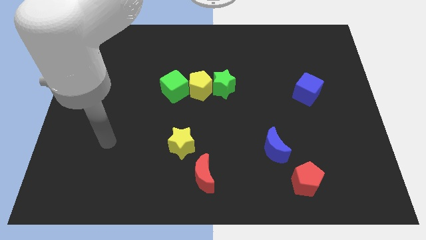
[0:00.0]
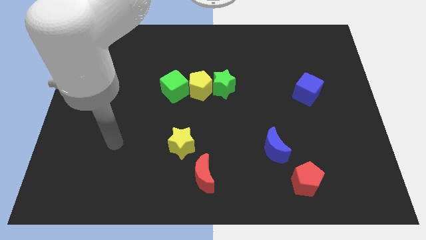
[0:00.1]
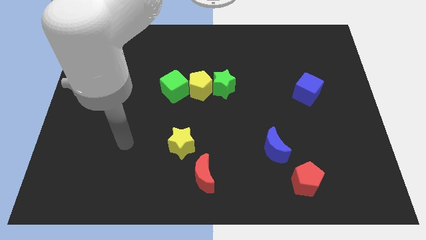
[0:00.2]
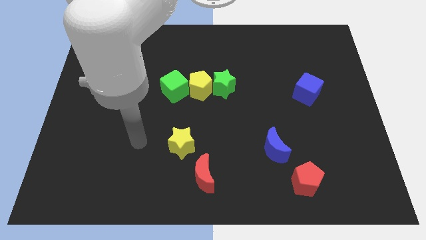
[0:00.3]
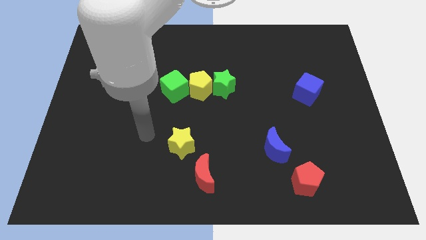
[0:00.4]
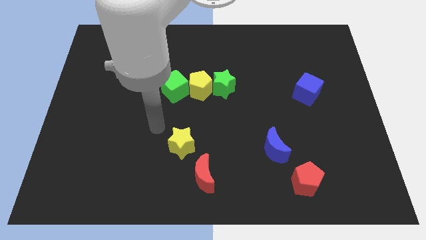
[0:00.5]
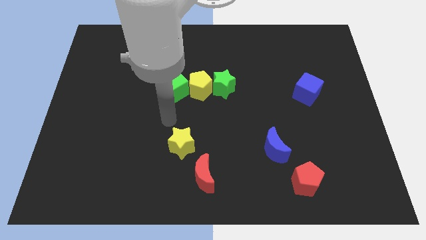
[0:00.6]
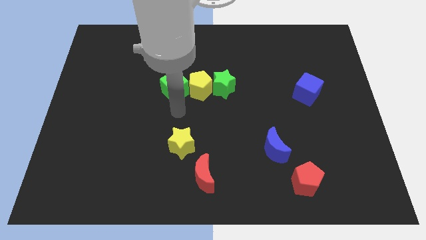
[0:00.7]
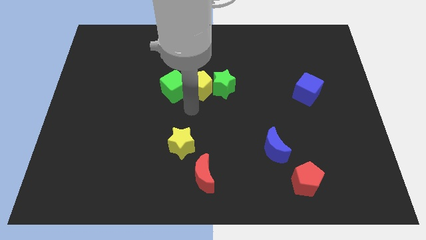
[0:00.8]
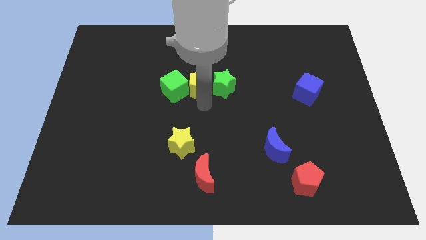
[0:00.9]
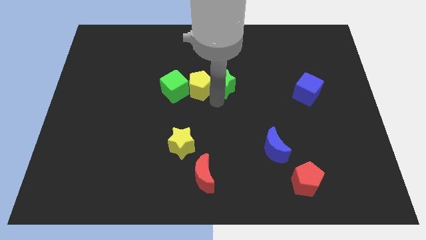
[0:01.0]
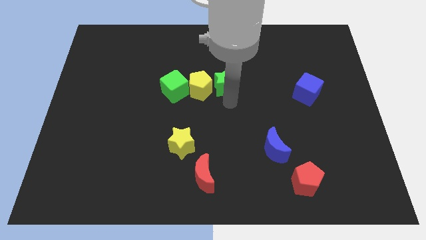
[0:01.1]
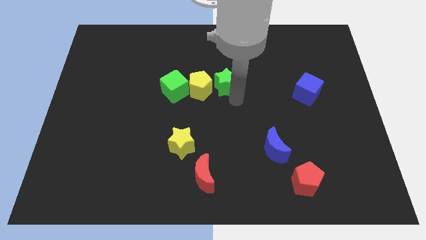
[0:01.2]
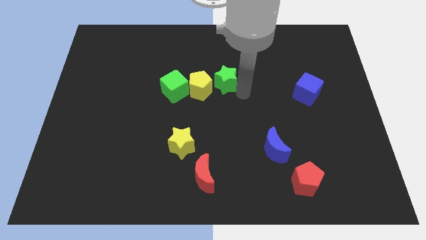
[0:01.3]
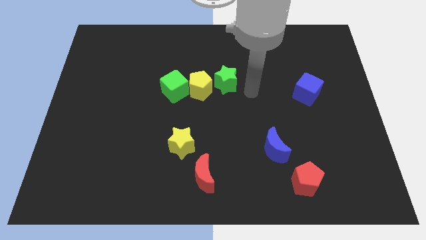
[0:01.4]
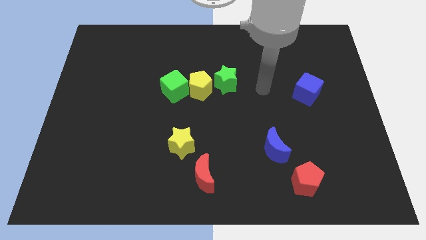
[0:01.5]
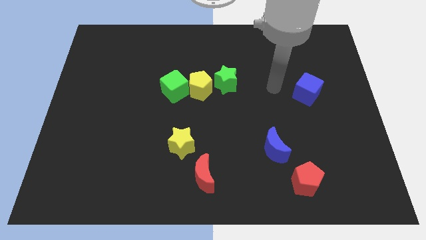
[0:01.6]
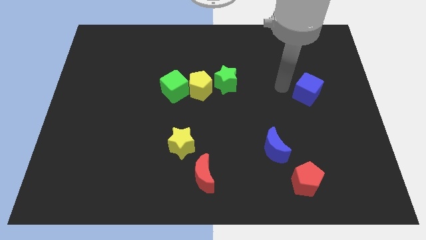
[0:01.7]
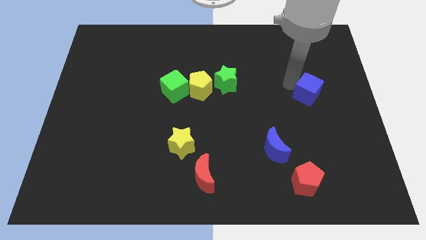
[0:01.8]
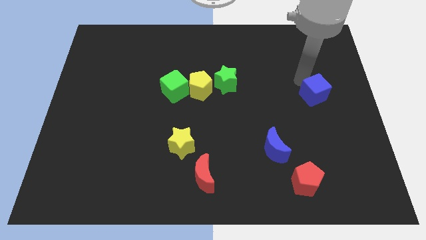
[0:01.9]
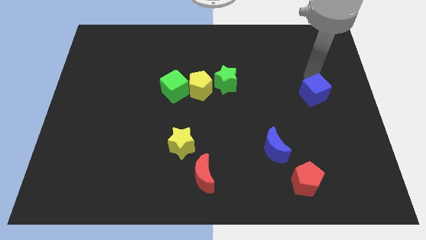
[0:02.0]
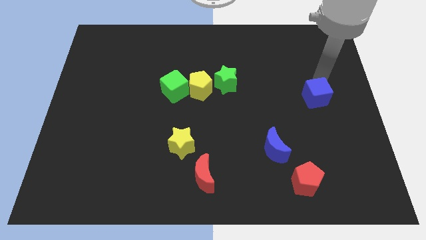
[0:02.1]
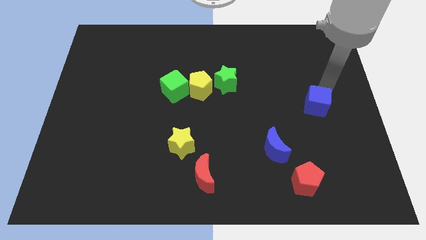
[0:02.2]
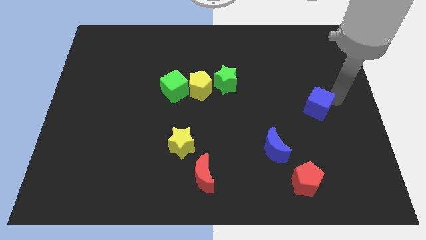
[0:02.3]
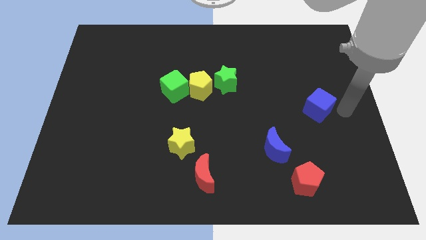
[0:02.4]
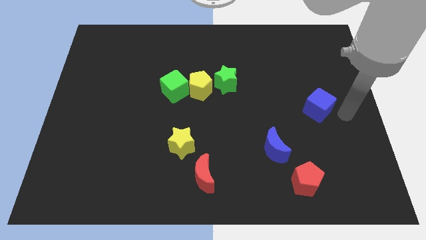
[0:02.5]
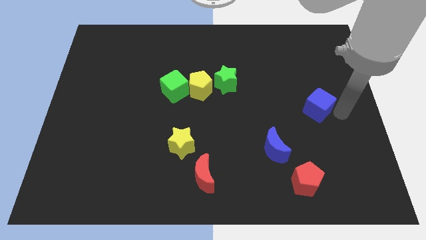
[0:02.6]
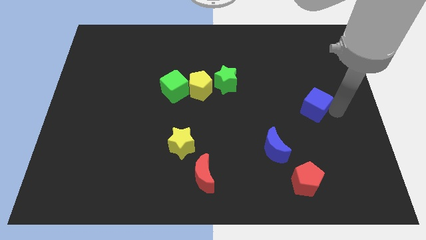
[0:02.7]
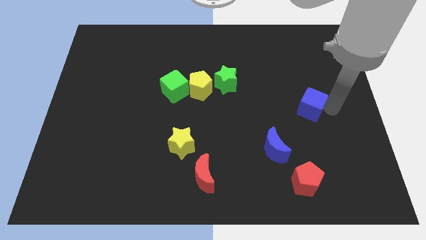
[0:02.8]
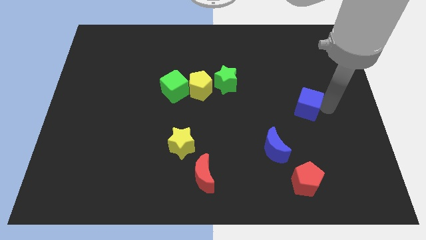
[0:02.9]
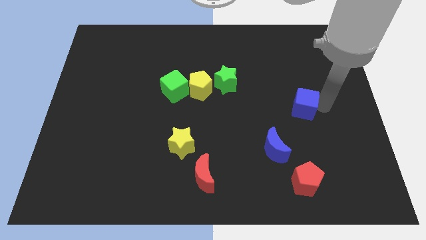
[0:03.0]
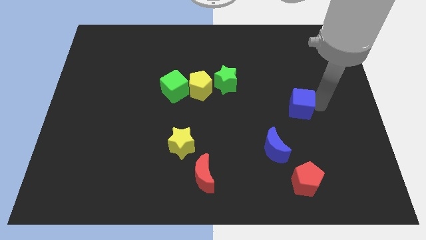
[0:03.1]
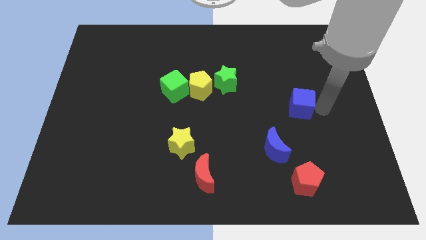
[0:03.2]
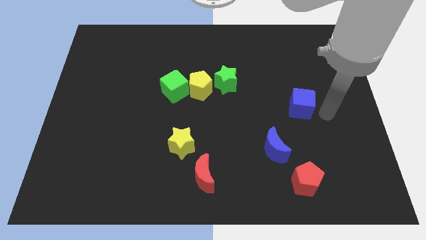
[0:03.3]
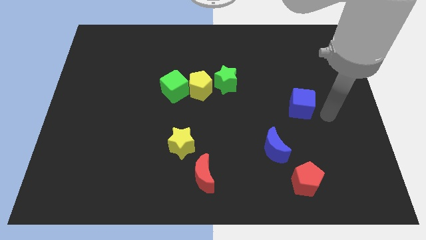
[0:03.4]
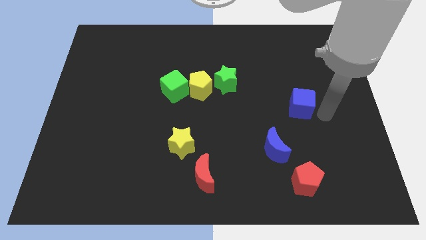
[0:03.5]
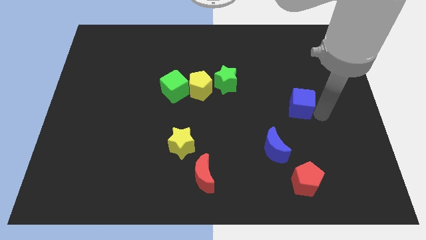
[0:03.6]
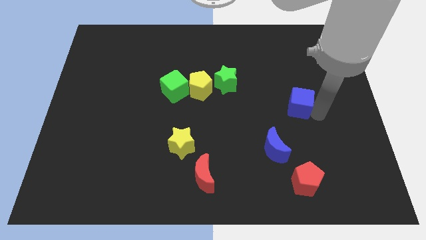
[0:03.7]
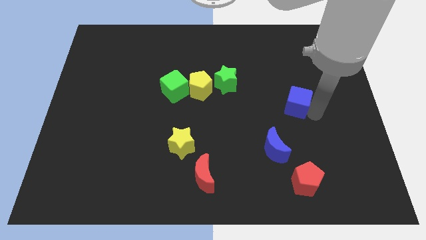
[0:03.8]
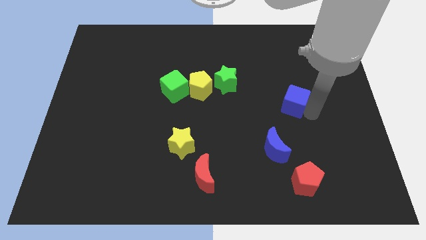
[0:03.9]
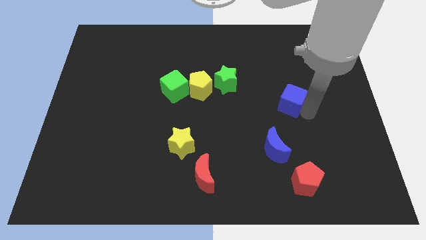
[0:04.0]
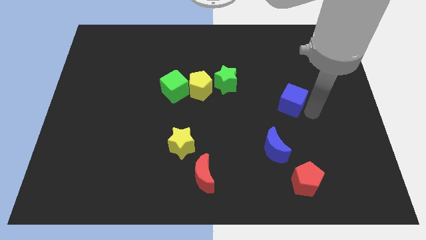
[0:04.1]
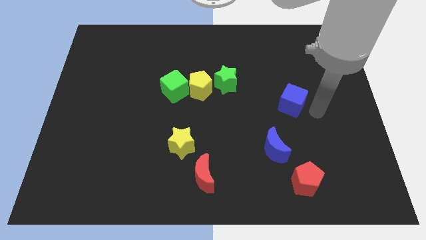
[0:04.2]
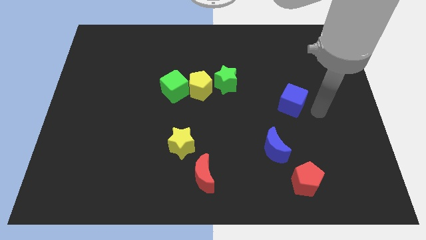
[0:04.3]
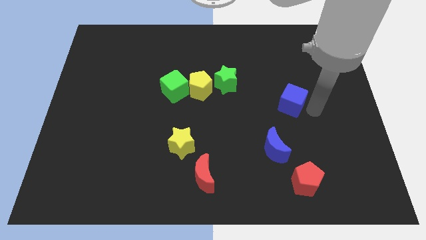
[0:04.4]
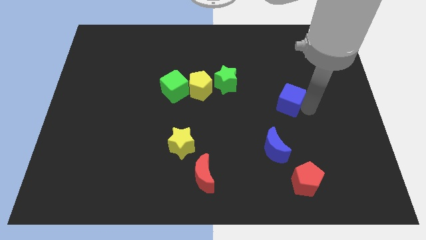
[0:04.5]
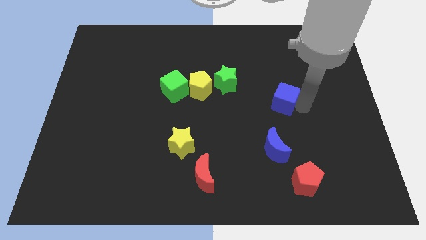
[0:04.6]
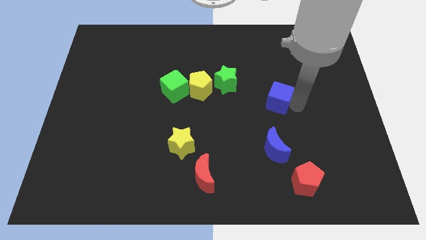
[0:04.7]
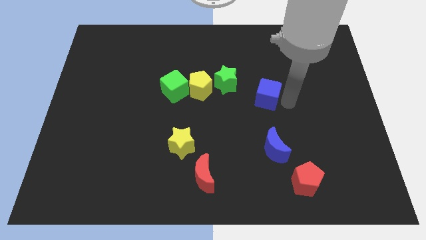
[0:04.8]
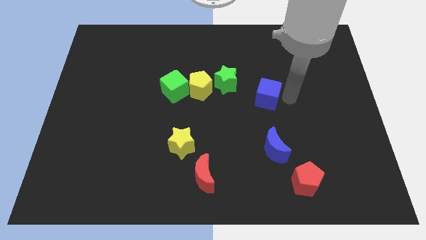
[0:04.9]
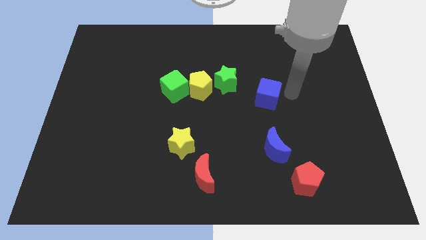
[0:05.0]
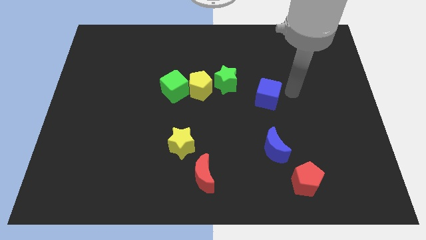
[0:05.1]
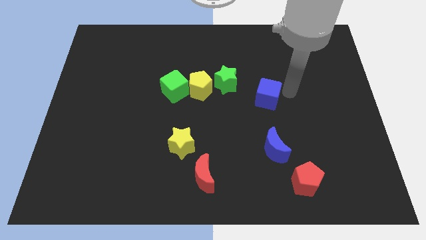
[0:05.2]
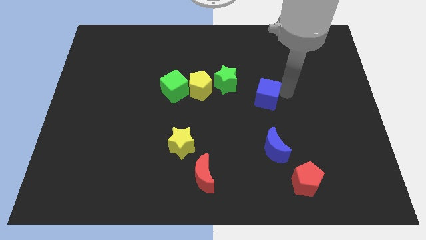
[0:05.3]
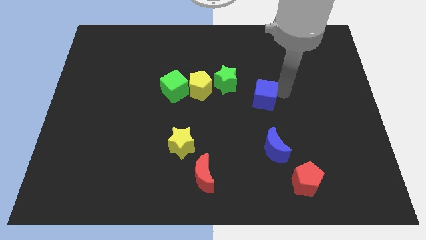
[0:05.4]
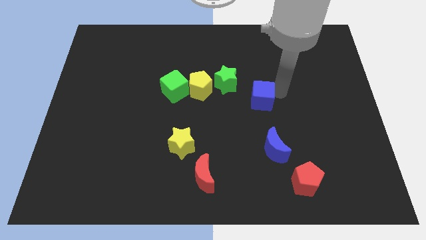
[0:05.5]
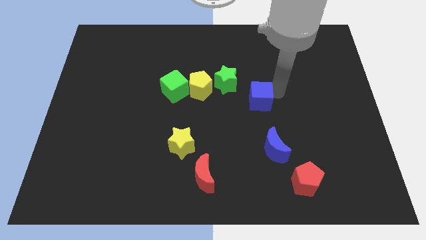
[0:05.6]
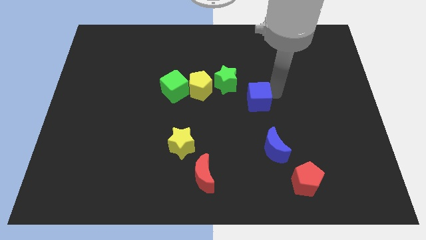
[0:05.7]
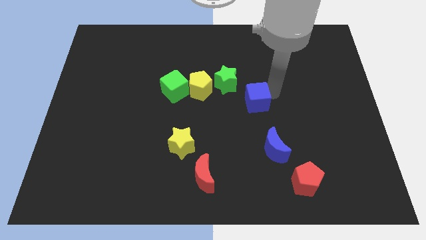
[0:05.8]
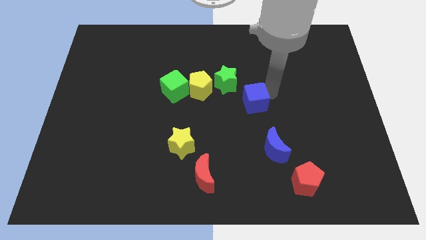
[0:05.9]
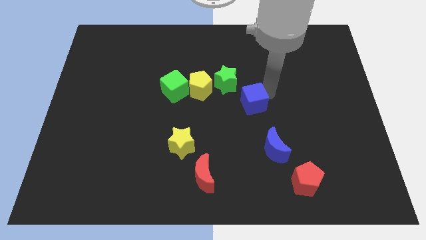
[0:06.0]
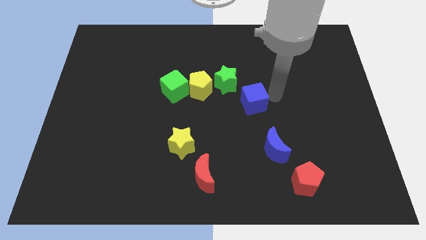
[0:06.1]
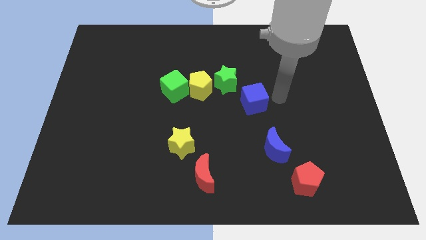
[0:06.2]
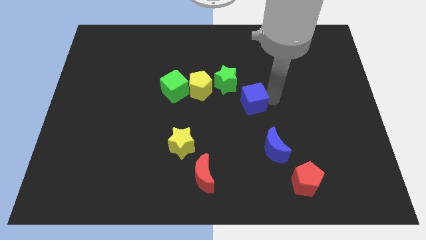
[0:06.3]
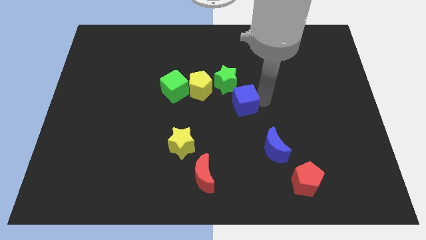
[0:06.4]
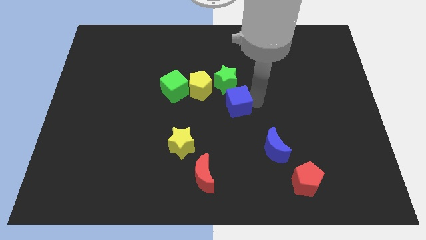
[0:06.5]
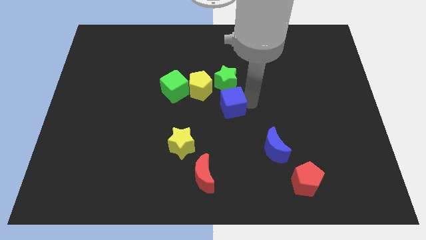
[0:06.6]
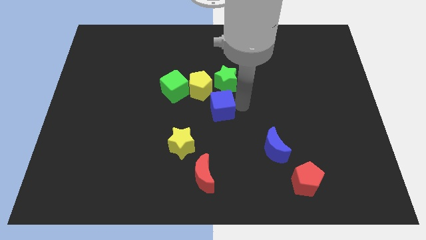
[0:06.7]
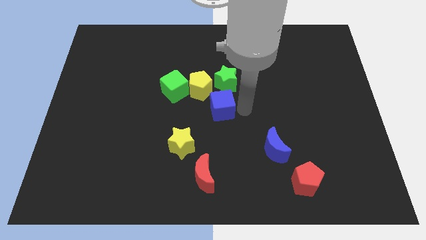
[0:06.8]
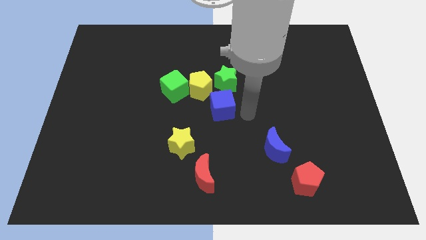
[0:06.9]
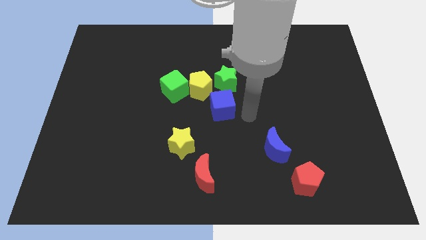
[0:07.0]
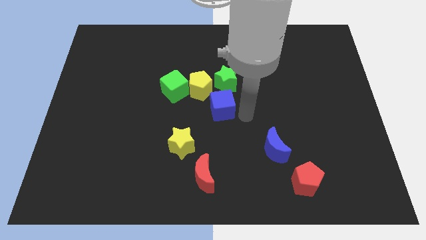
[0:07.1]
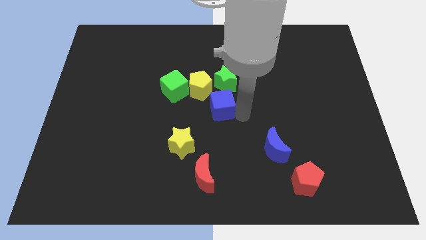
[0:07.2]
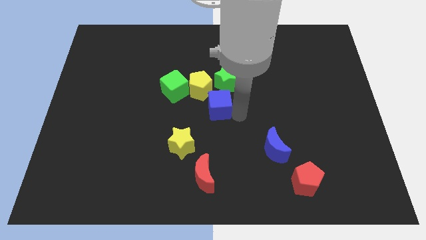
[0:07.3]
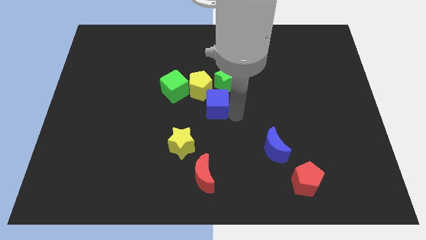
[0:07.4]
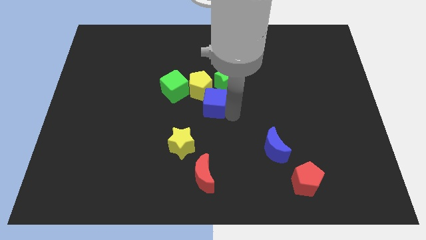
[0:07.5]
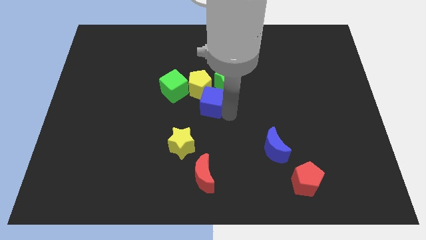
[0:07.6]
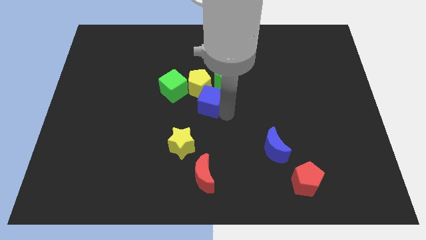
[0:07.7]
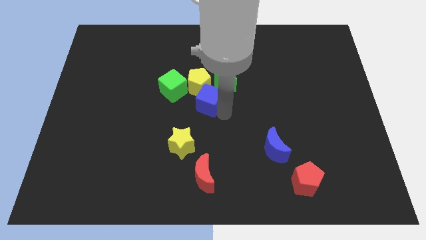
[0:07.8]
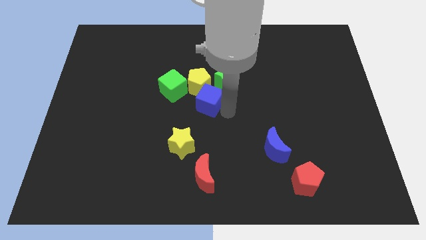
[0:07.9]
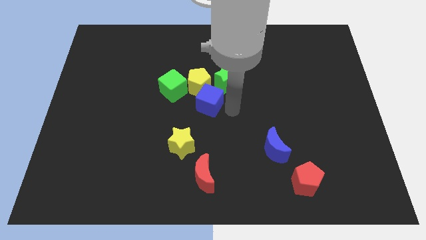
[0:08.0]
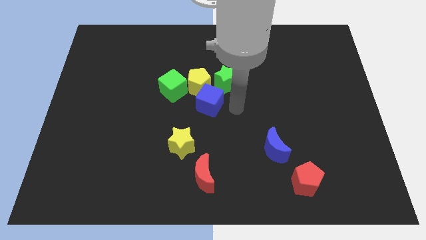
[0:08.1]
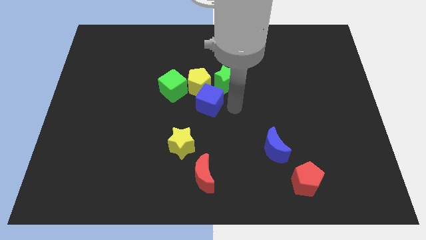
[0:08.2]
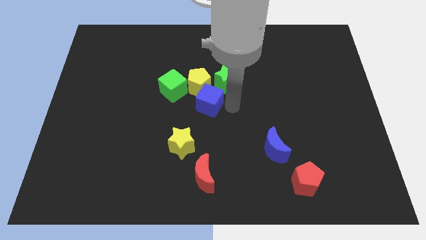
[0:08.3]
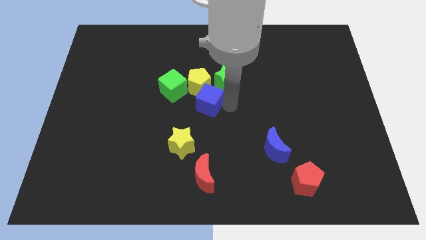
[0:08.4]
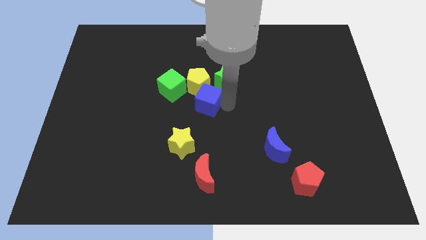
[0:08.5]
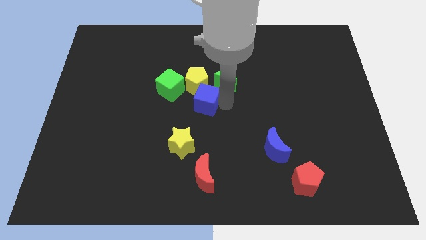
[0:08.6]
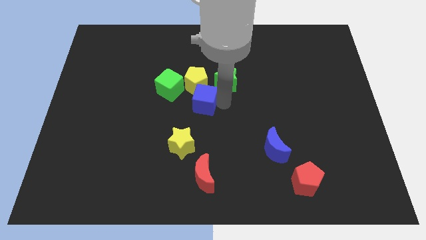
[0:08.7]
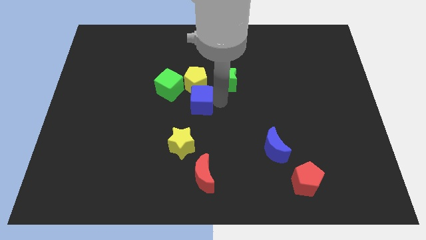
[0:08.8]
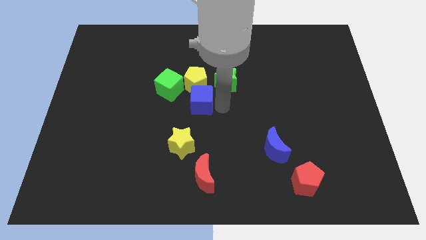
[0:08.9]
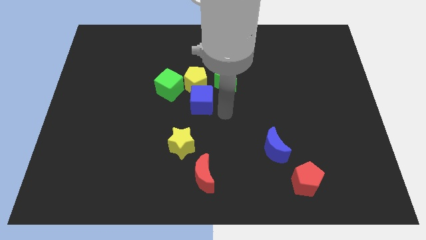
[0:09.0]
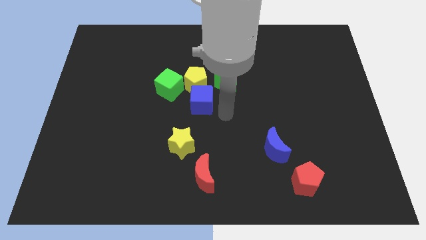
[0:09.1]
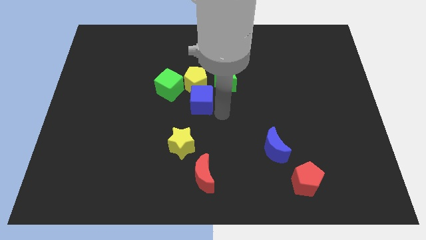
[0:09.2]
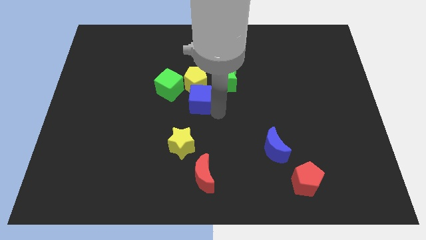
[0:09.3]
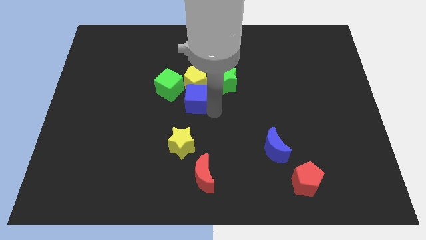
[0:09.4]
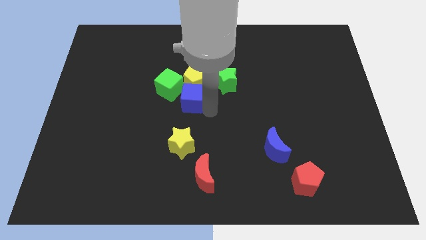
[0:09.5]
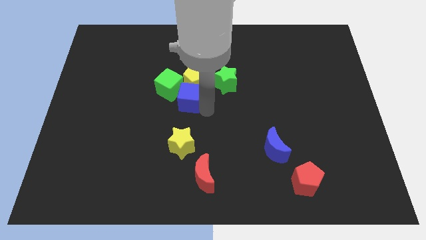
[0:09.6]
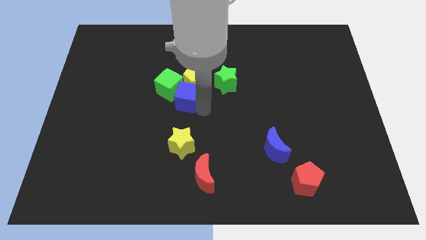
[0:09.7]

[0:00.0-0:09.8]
put the blue cube towards the green cube
